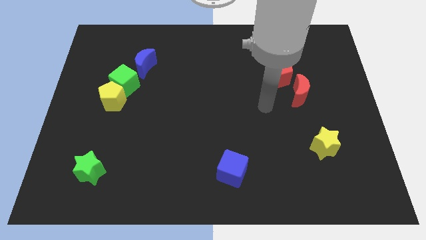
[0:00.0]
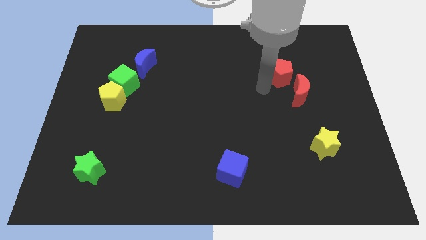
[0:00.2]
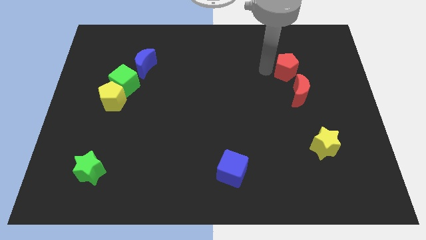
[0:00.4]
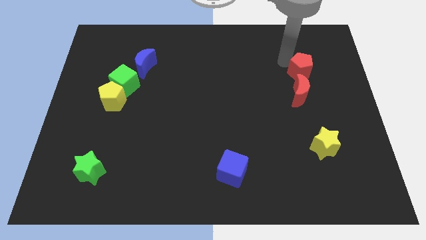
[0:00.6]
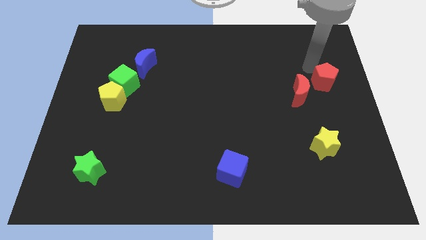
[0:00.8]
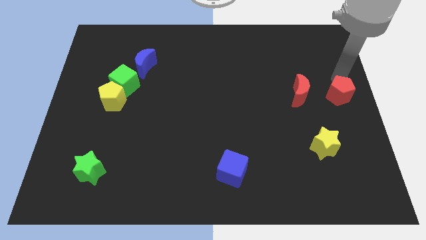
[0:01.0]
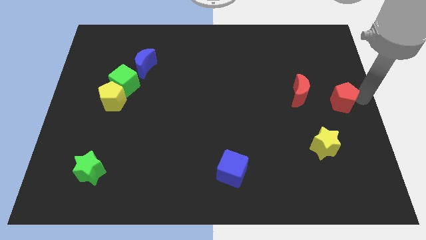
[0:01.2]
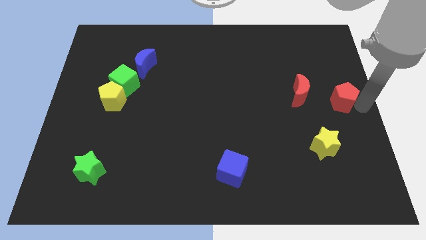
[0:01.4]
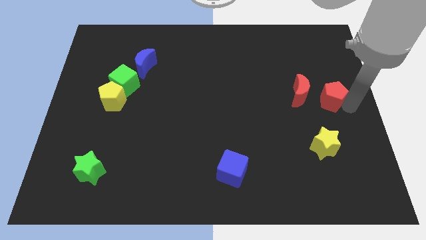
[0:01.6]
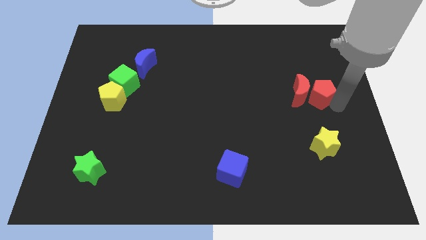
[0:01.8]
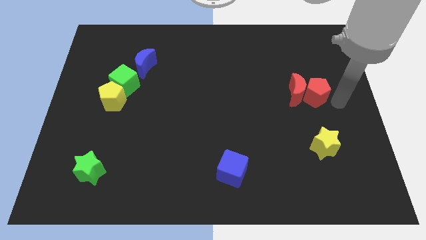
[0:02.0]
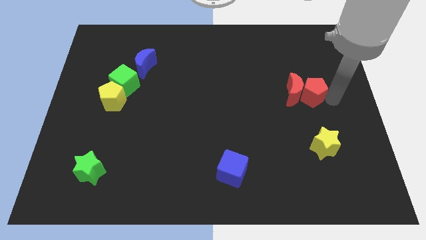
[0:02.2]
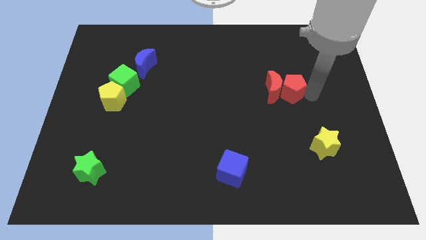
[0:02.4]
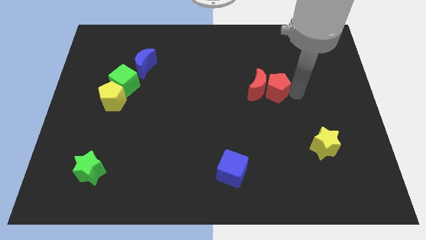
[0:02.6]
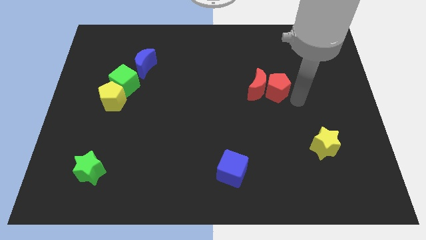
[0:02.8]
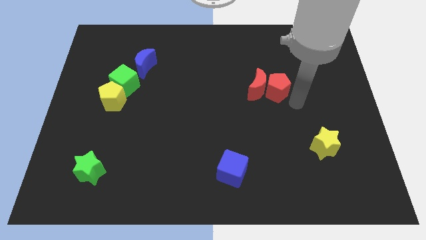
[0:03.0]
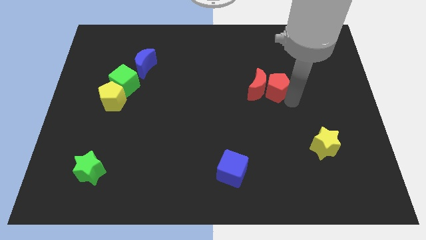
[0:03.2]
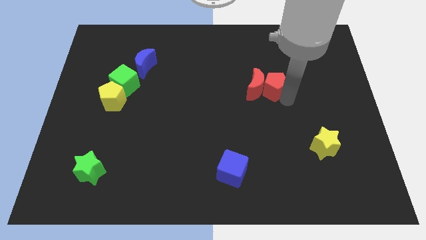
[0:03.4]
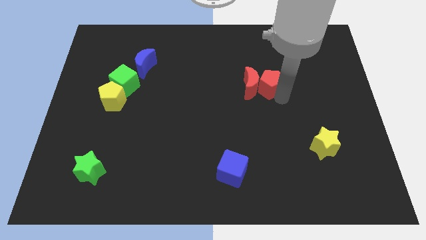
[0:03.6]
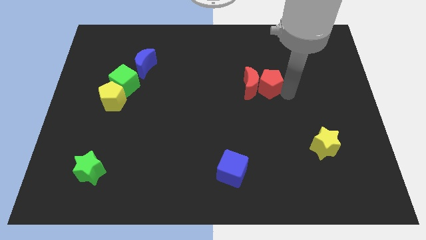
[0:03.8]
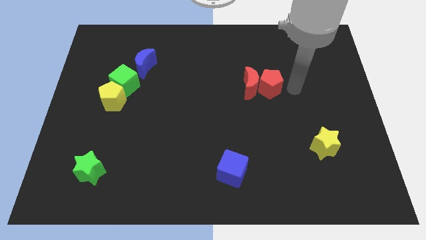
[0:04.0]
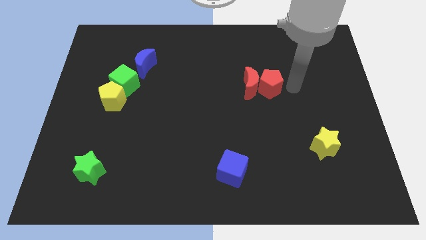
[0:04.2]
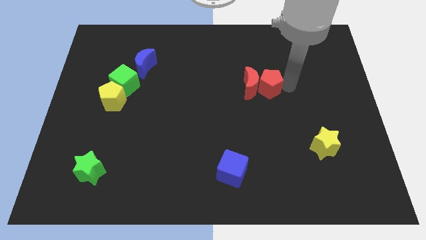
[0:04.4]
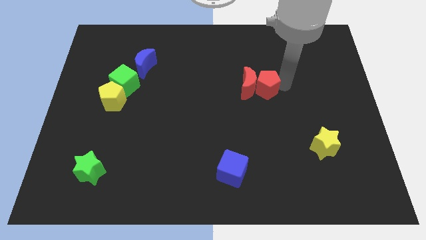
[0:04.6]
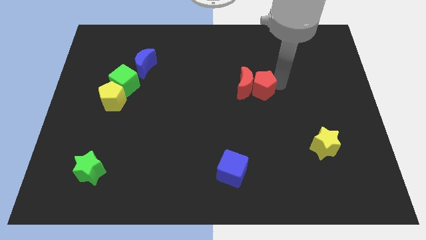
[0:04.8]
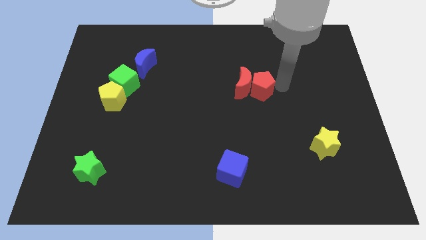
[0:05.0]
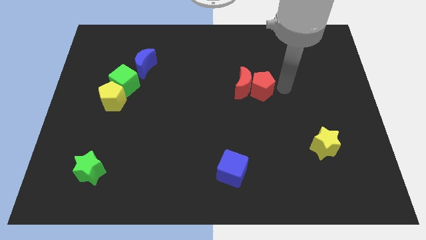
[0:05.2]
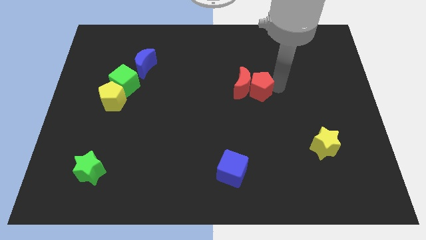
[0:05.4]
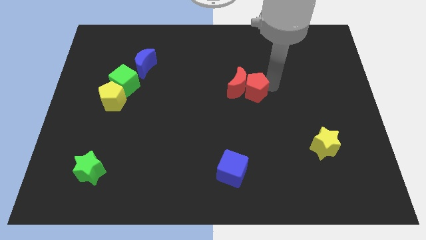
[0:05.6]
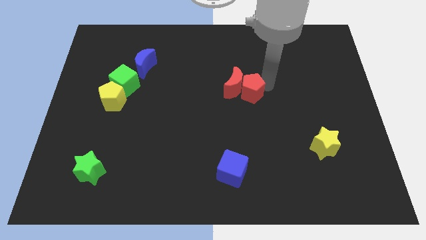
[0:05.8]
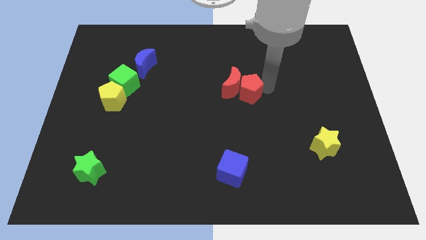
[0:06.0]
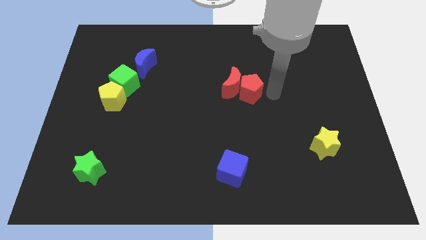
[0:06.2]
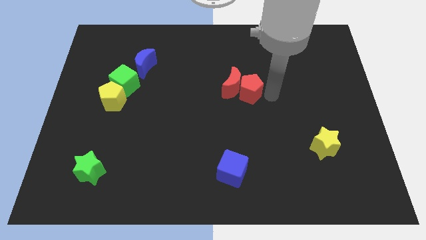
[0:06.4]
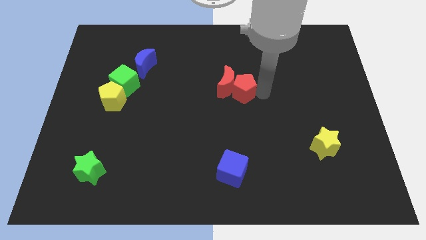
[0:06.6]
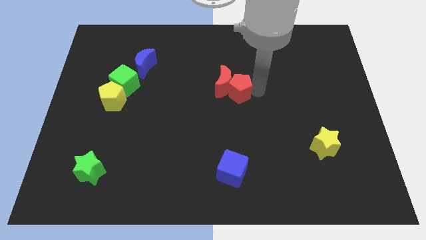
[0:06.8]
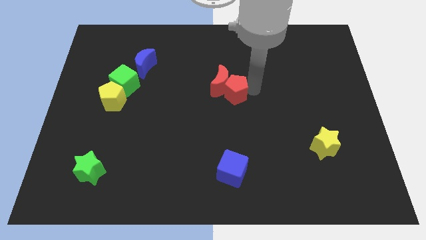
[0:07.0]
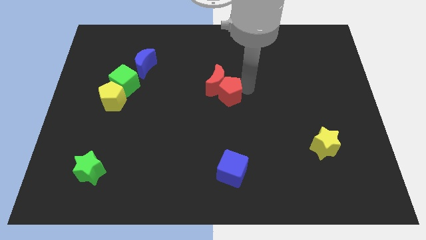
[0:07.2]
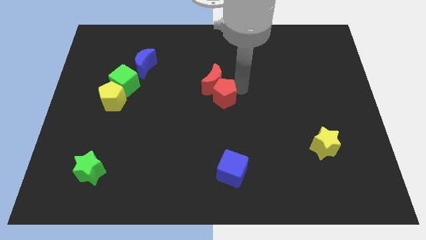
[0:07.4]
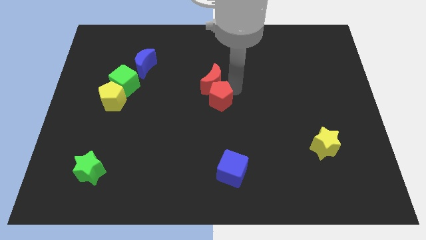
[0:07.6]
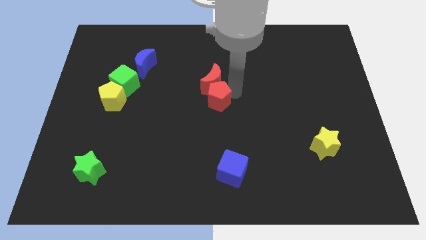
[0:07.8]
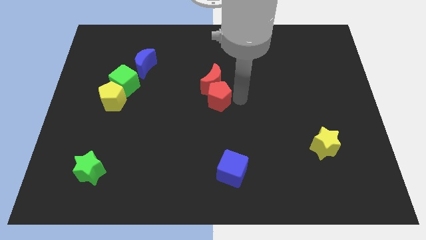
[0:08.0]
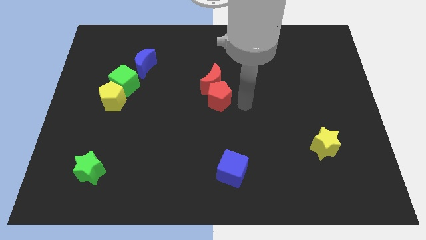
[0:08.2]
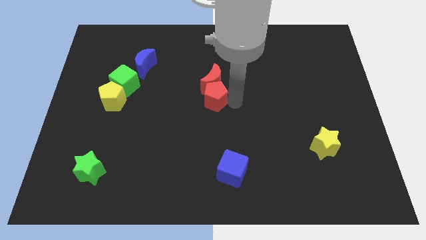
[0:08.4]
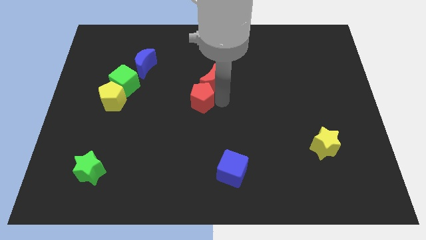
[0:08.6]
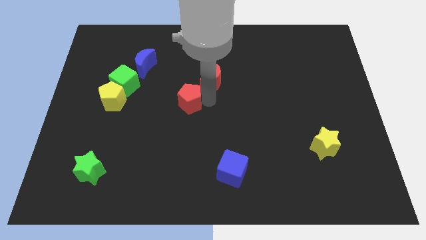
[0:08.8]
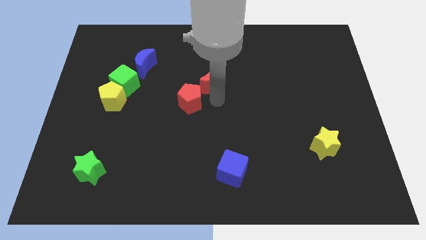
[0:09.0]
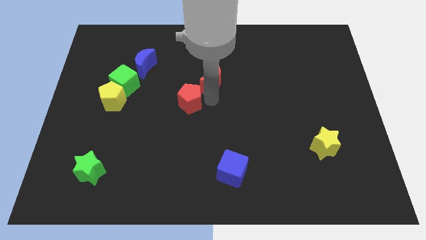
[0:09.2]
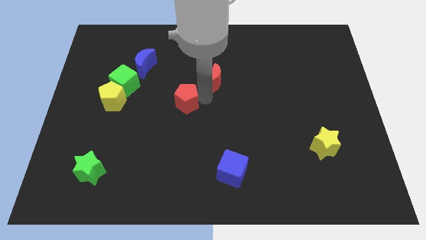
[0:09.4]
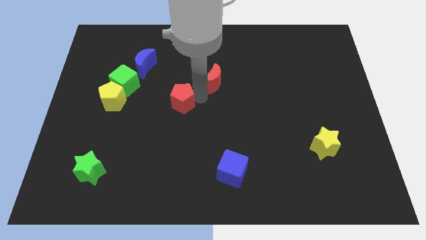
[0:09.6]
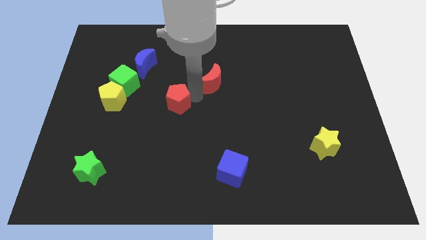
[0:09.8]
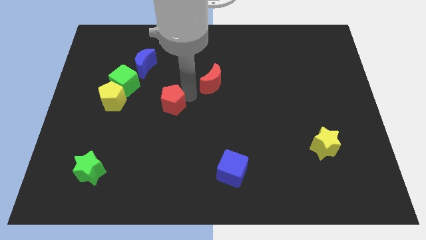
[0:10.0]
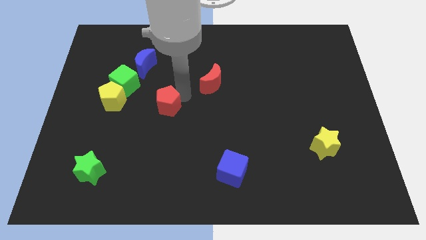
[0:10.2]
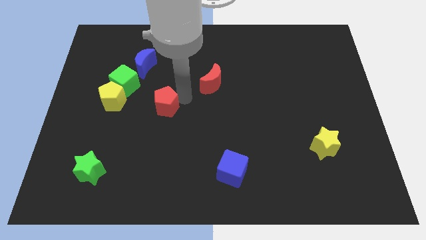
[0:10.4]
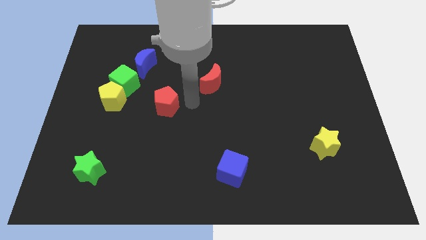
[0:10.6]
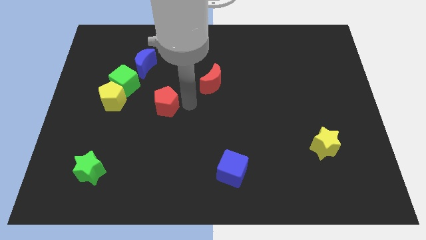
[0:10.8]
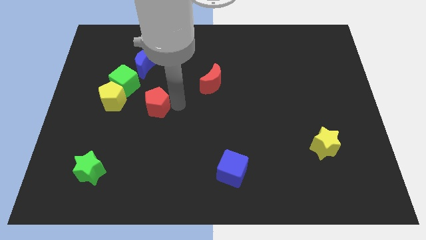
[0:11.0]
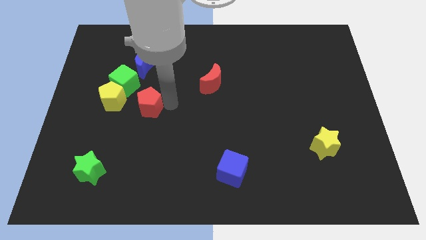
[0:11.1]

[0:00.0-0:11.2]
move the red pentagon diagonally down and to the right of the yellow pentagon
